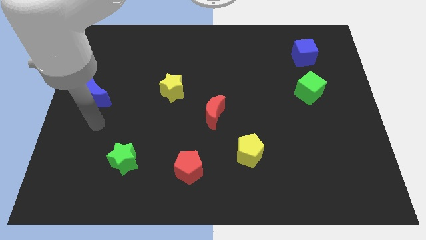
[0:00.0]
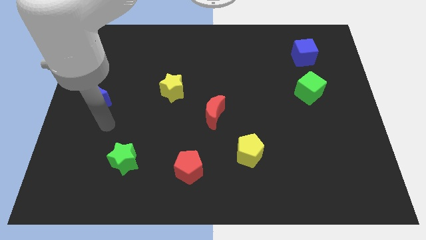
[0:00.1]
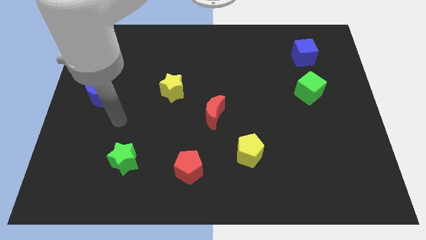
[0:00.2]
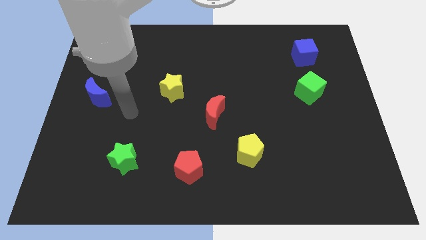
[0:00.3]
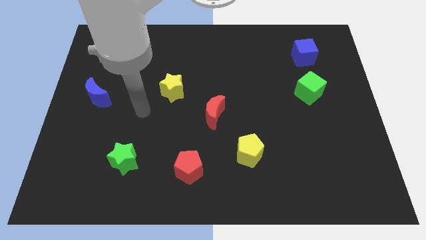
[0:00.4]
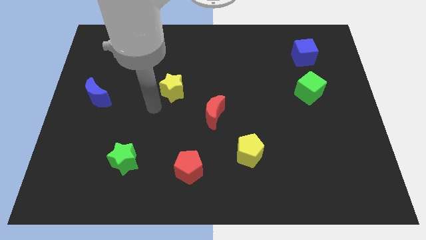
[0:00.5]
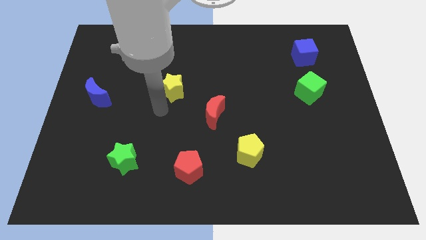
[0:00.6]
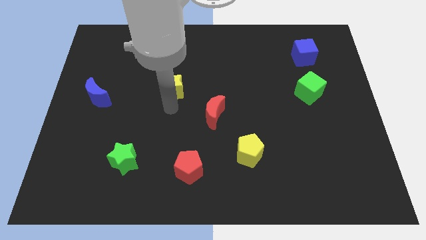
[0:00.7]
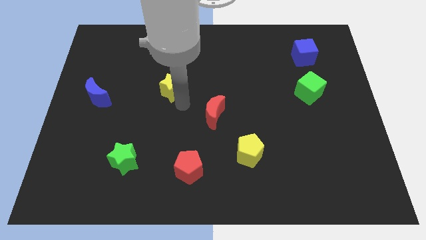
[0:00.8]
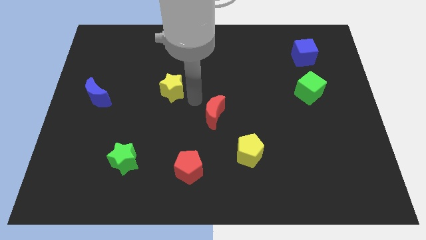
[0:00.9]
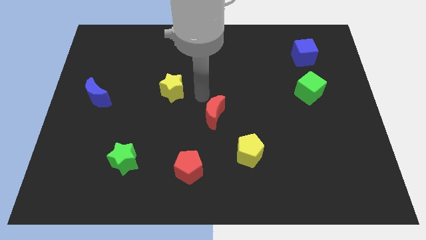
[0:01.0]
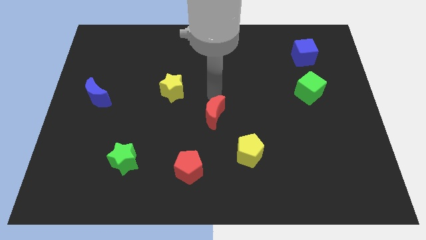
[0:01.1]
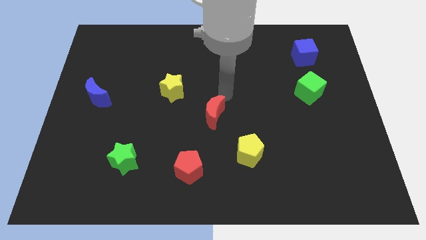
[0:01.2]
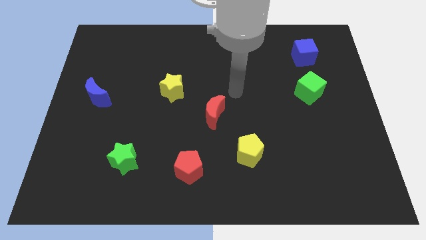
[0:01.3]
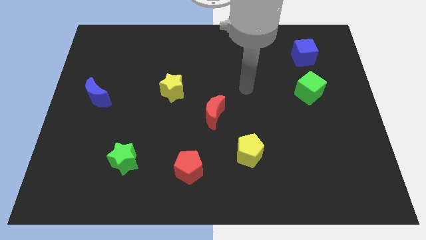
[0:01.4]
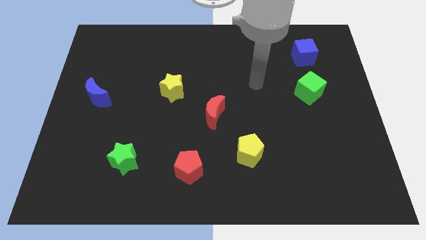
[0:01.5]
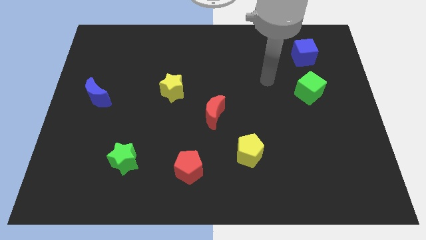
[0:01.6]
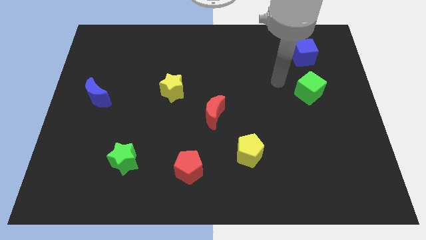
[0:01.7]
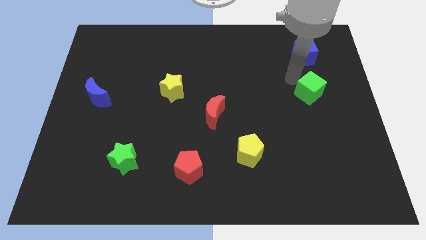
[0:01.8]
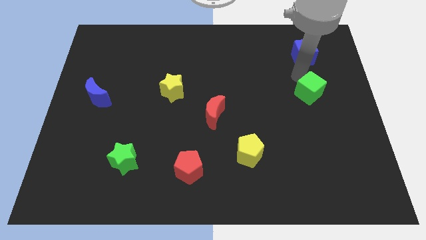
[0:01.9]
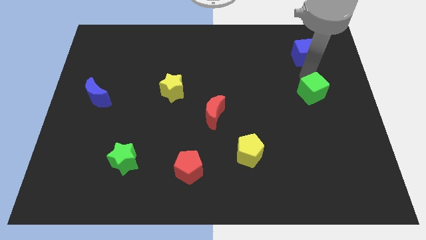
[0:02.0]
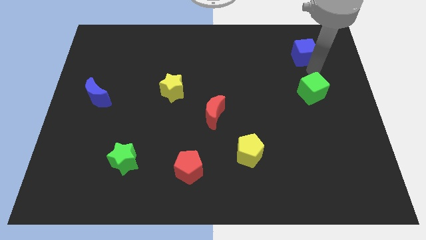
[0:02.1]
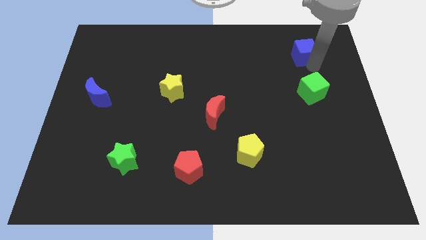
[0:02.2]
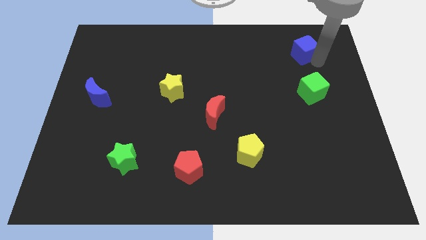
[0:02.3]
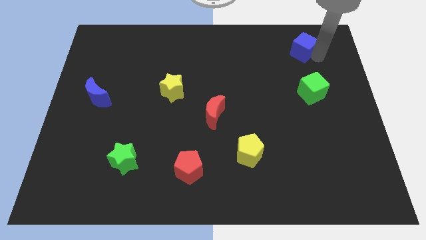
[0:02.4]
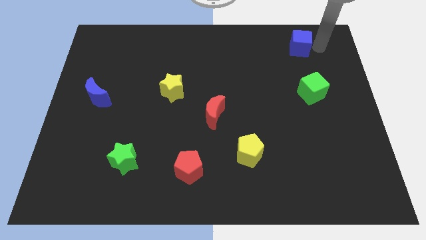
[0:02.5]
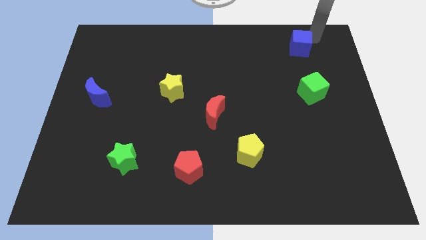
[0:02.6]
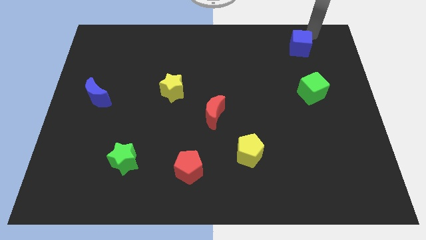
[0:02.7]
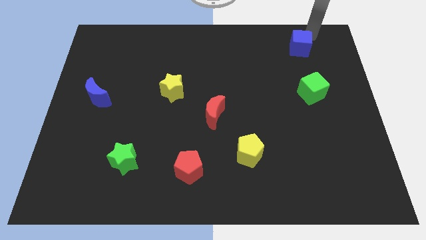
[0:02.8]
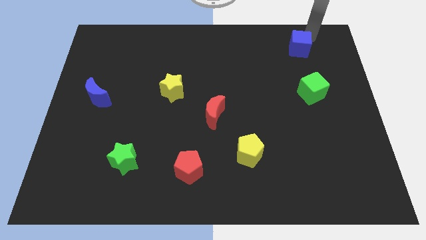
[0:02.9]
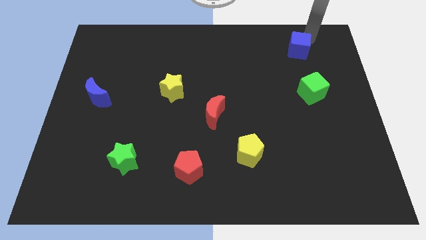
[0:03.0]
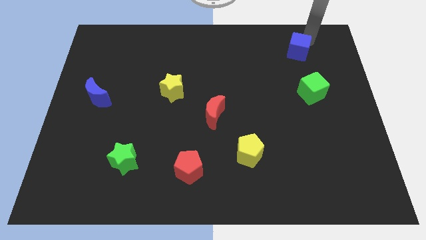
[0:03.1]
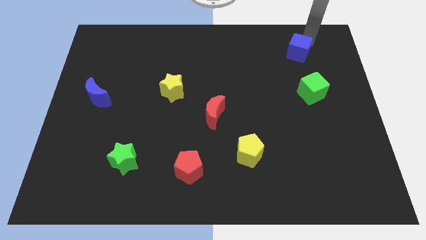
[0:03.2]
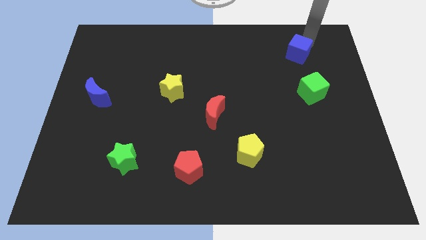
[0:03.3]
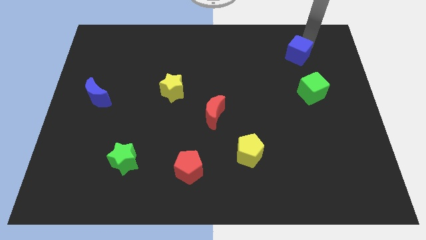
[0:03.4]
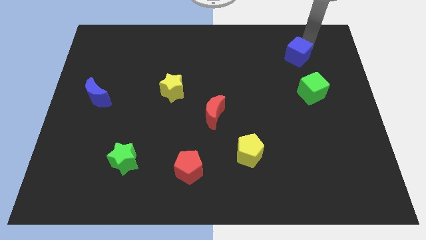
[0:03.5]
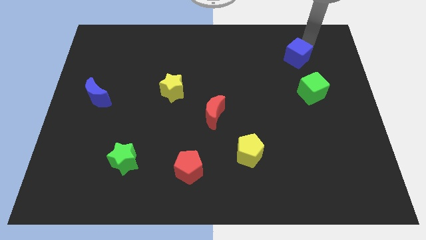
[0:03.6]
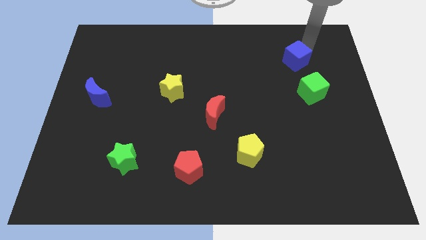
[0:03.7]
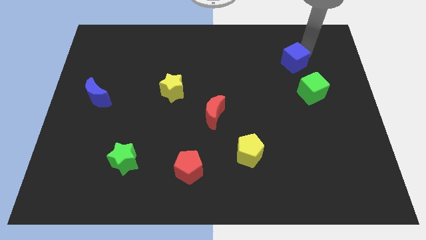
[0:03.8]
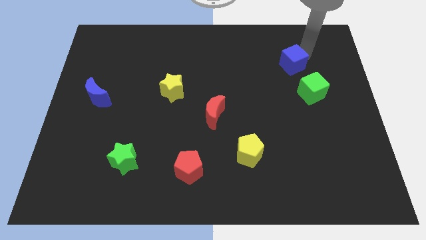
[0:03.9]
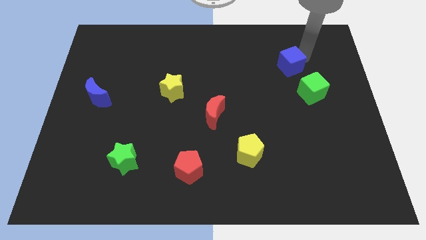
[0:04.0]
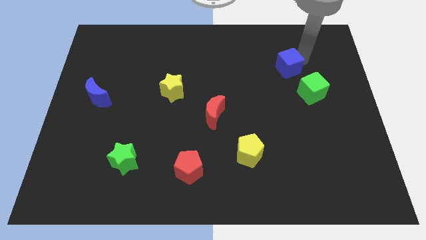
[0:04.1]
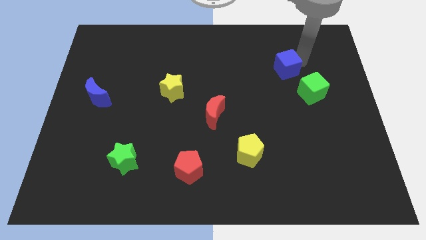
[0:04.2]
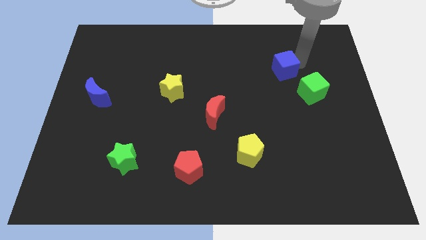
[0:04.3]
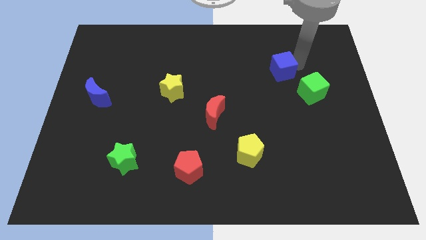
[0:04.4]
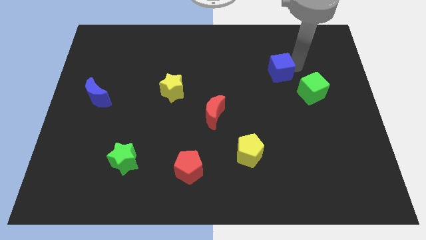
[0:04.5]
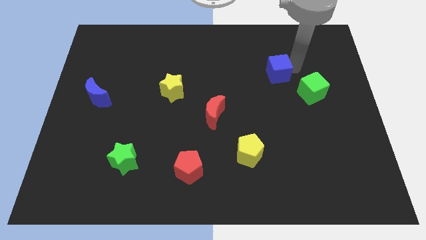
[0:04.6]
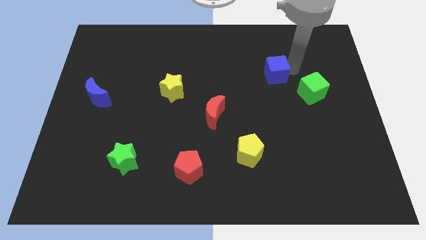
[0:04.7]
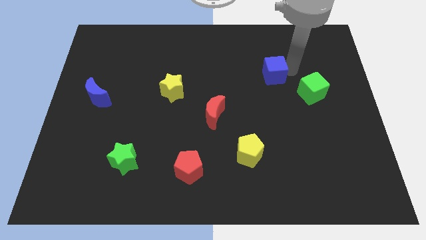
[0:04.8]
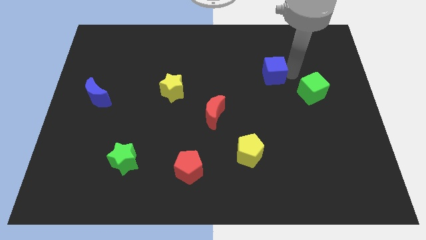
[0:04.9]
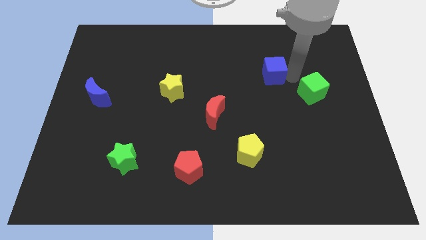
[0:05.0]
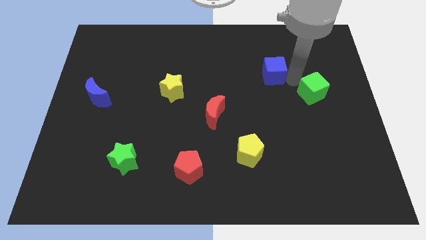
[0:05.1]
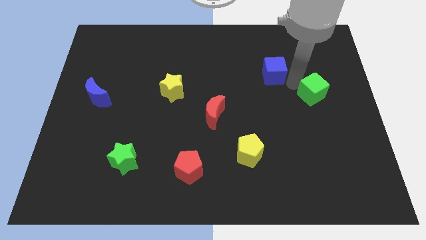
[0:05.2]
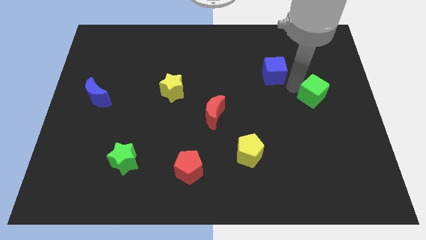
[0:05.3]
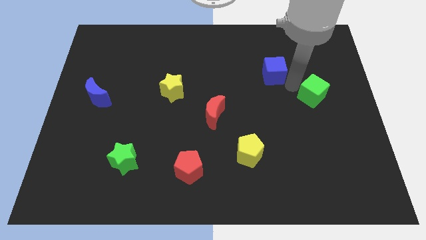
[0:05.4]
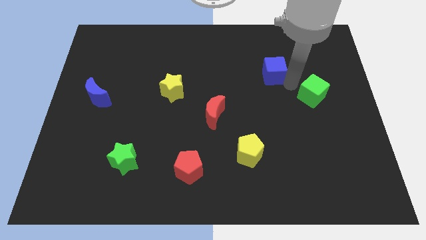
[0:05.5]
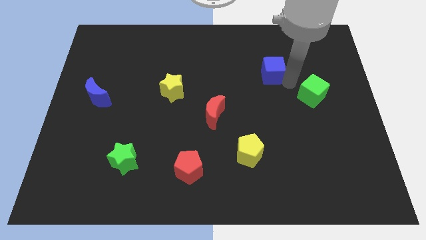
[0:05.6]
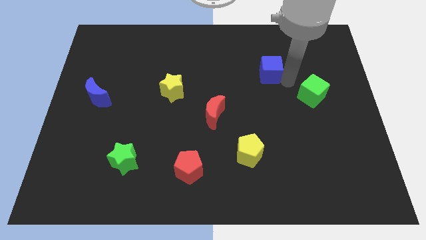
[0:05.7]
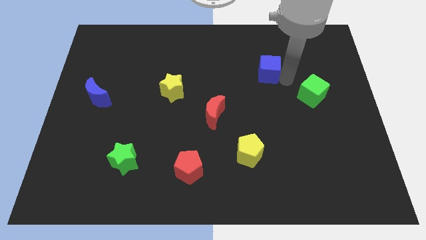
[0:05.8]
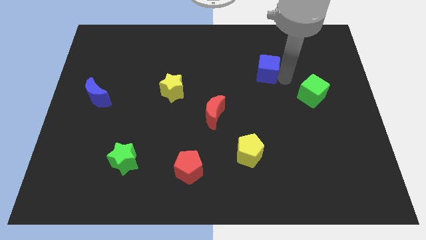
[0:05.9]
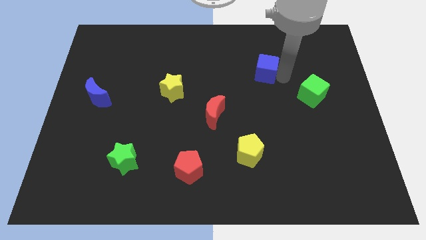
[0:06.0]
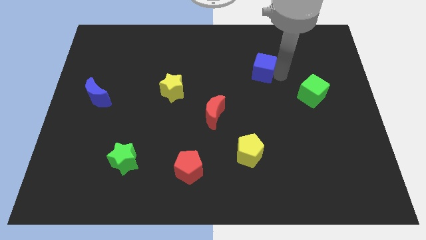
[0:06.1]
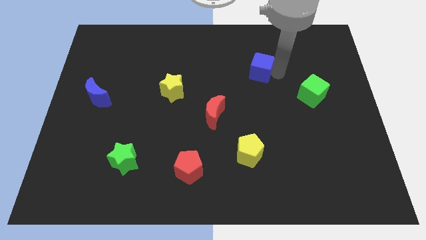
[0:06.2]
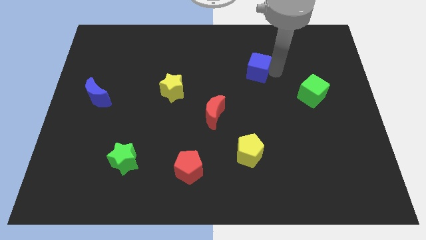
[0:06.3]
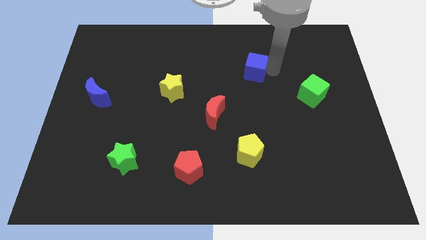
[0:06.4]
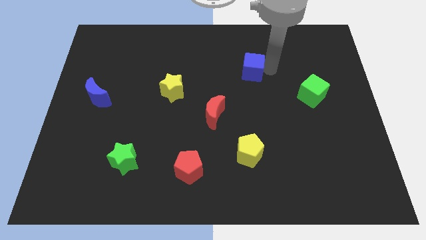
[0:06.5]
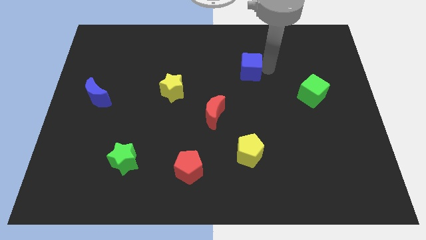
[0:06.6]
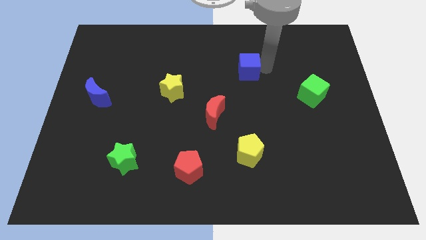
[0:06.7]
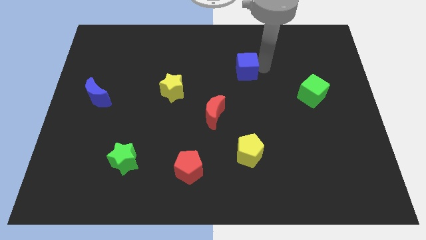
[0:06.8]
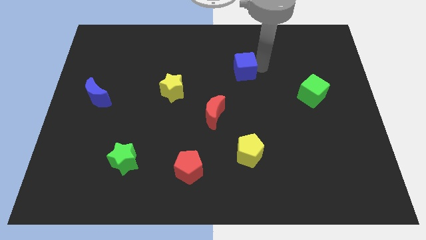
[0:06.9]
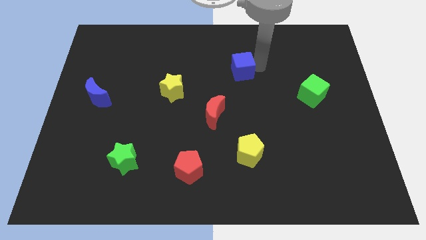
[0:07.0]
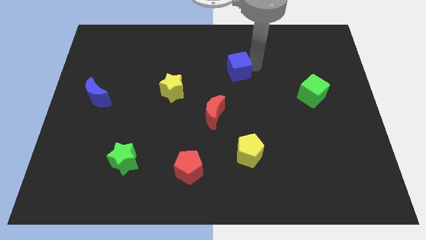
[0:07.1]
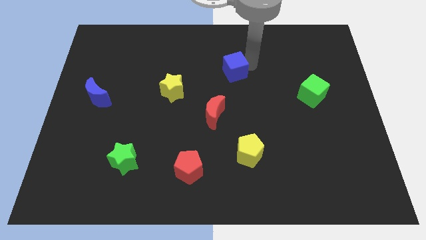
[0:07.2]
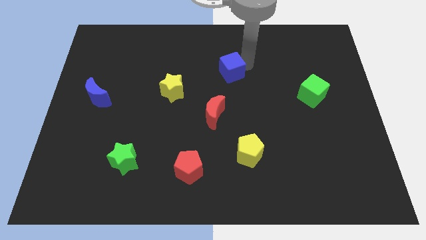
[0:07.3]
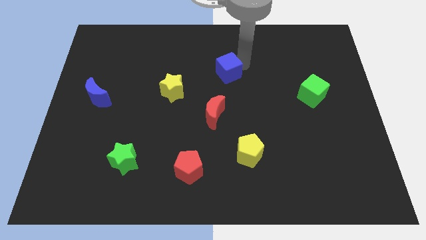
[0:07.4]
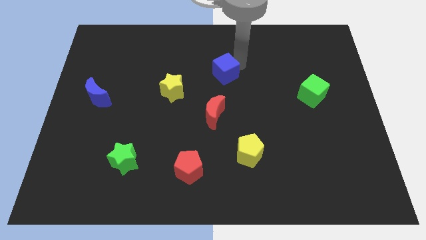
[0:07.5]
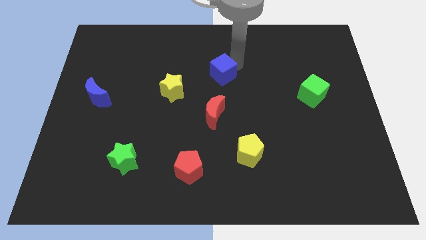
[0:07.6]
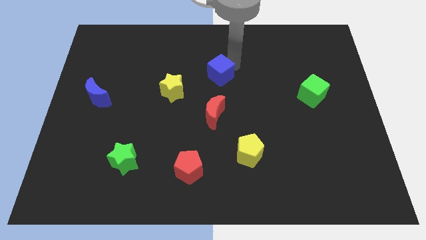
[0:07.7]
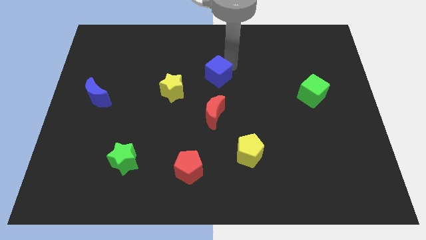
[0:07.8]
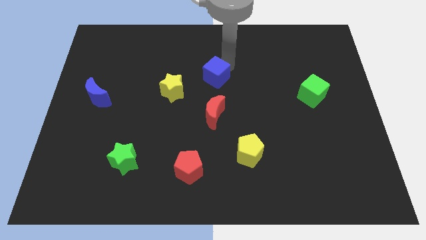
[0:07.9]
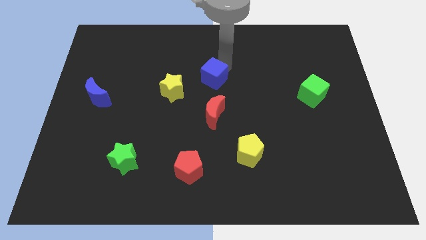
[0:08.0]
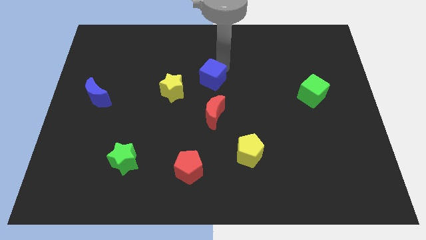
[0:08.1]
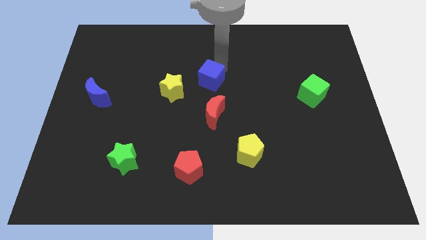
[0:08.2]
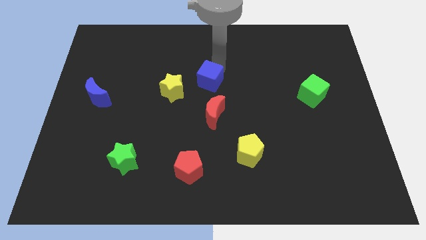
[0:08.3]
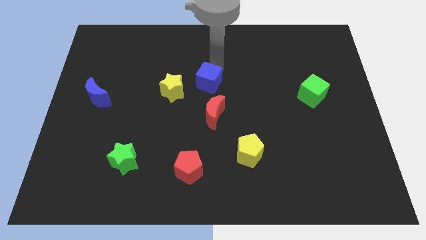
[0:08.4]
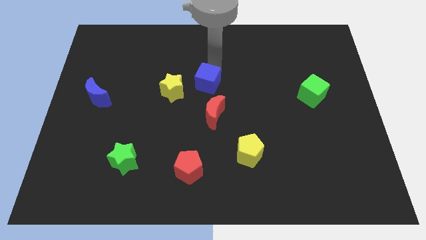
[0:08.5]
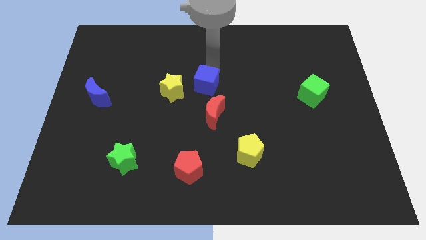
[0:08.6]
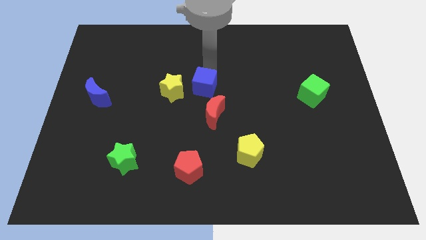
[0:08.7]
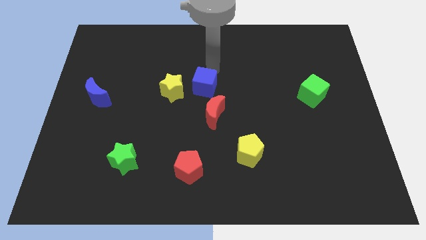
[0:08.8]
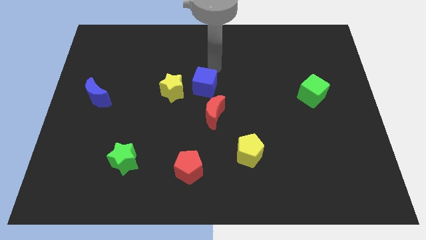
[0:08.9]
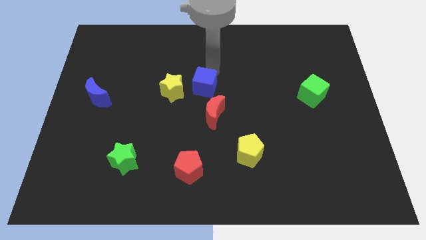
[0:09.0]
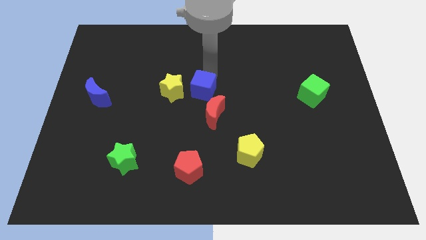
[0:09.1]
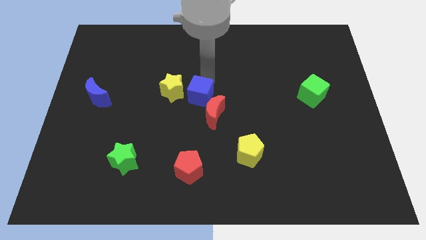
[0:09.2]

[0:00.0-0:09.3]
put the blue cube diagonally down and to the right of the yellow star
